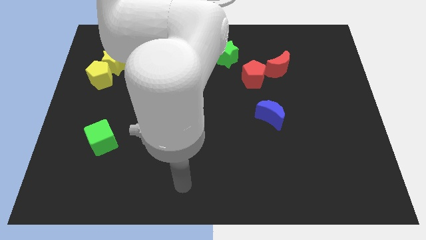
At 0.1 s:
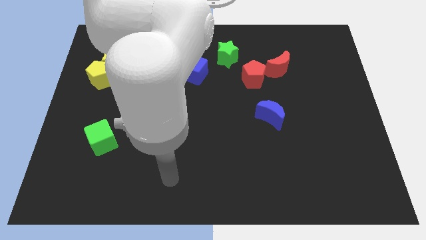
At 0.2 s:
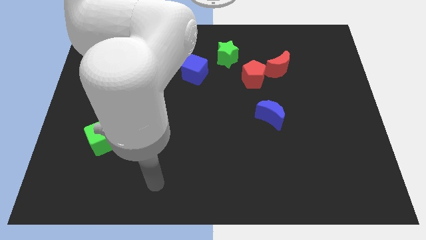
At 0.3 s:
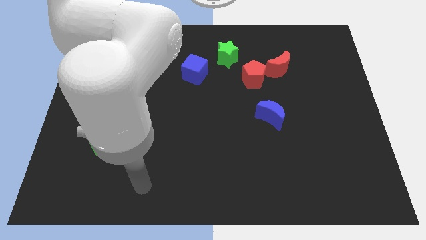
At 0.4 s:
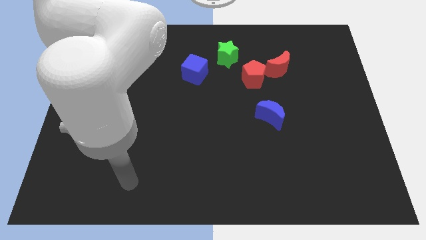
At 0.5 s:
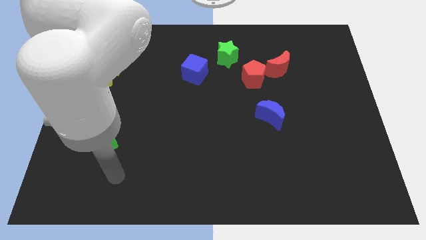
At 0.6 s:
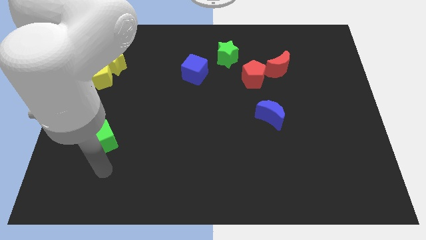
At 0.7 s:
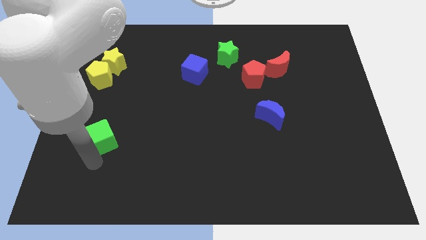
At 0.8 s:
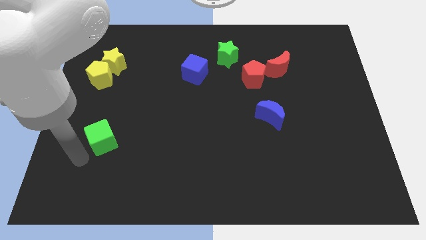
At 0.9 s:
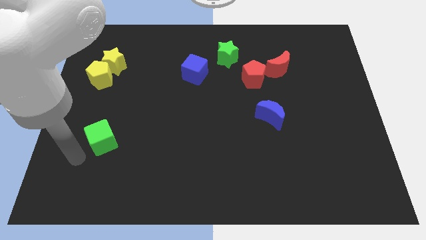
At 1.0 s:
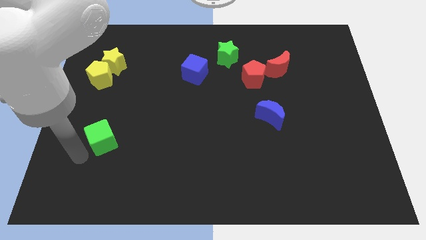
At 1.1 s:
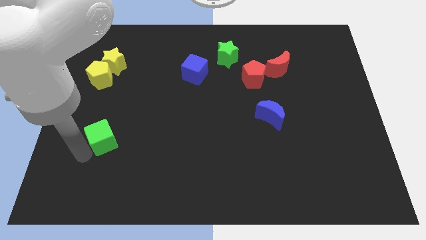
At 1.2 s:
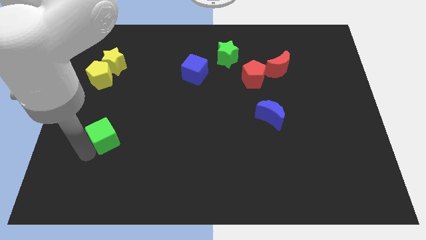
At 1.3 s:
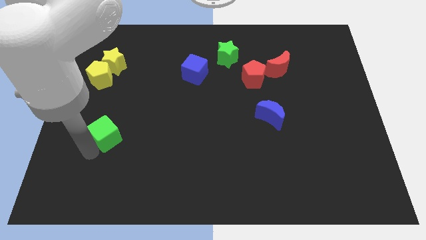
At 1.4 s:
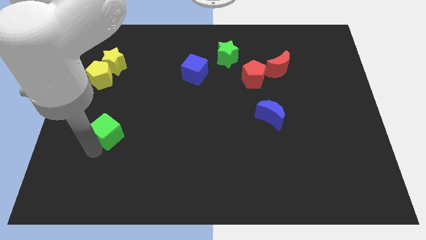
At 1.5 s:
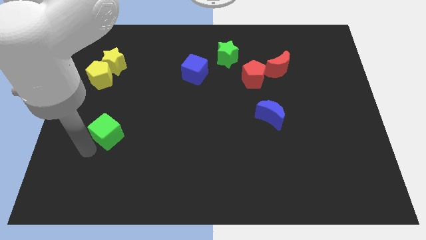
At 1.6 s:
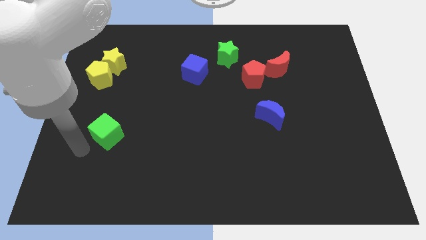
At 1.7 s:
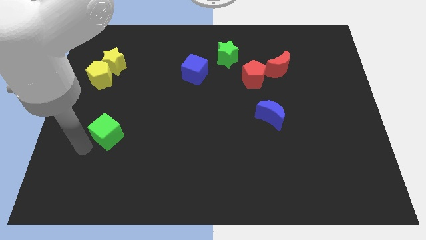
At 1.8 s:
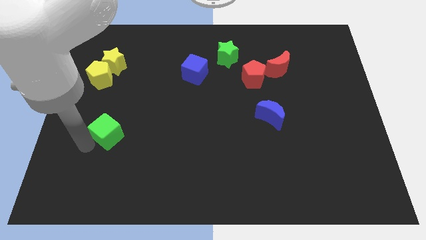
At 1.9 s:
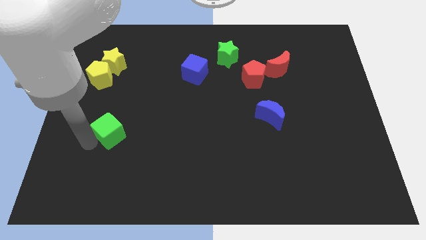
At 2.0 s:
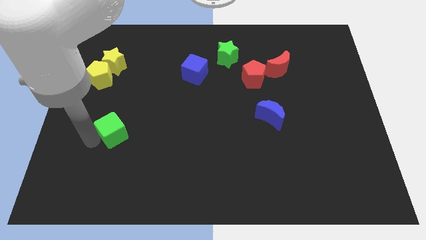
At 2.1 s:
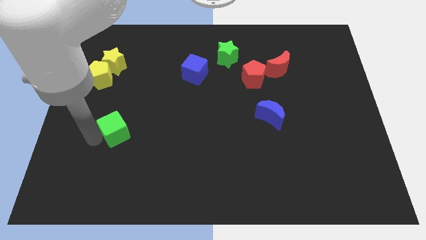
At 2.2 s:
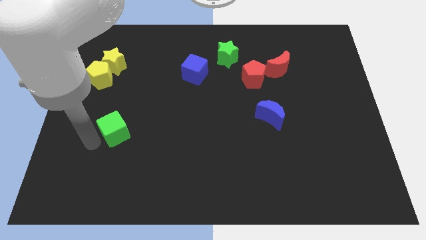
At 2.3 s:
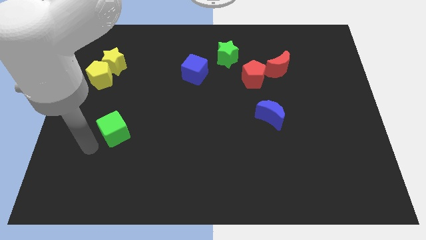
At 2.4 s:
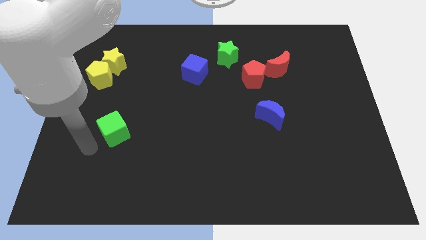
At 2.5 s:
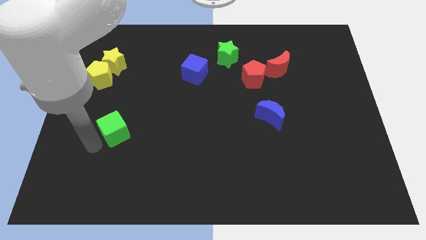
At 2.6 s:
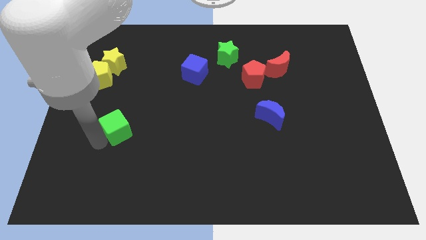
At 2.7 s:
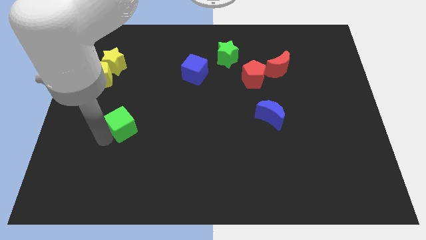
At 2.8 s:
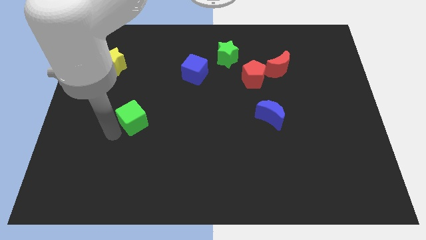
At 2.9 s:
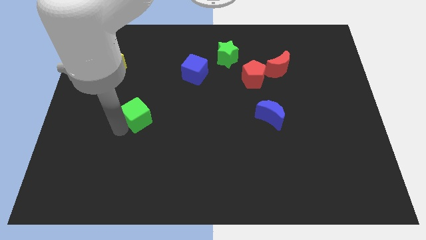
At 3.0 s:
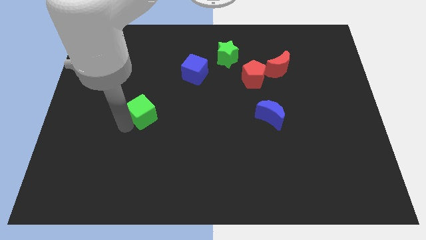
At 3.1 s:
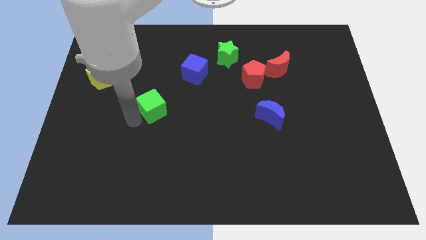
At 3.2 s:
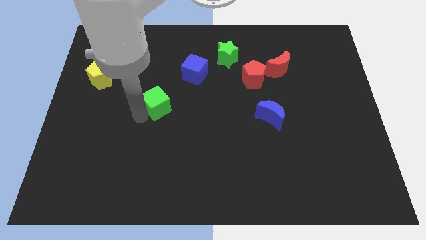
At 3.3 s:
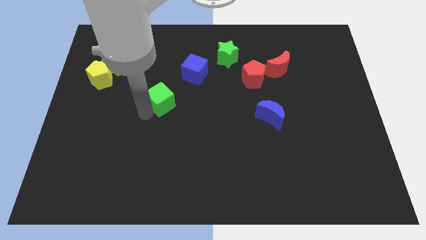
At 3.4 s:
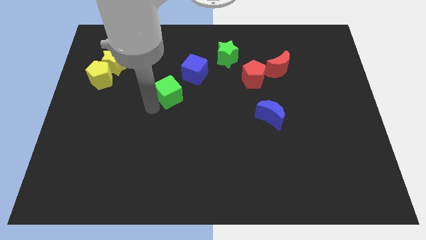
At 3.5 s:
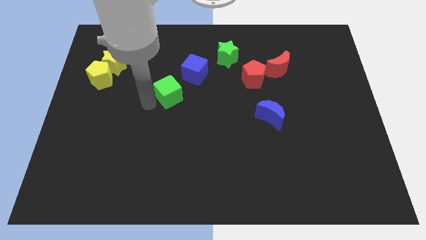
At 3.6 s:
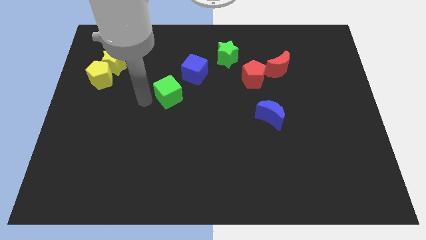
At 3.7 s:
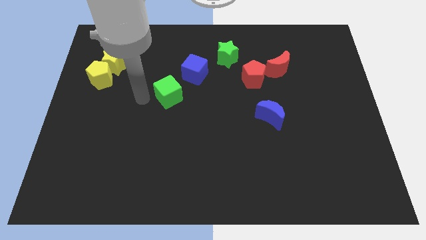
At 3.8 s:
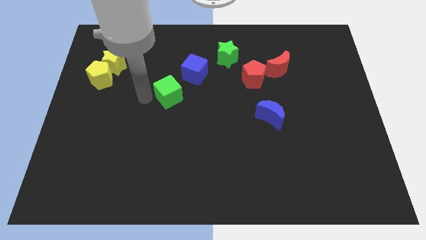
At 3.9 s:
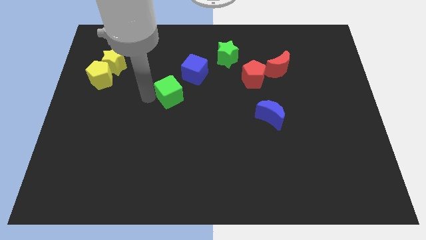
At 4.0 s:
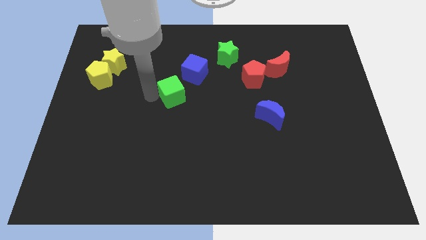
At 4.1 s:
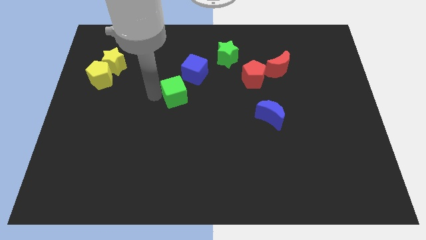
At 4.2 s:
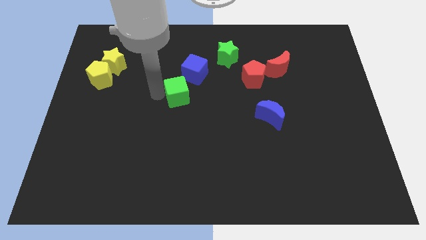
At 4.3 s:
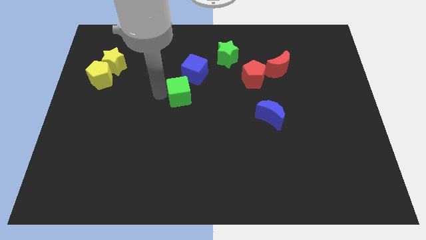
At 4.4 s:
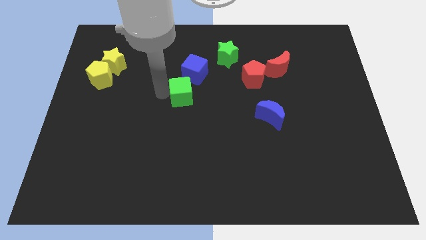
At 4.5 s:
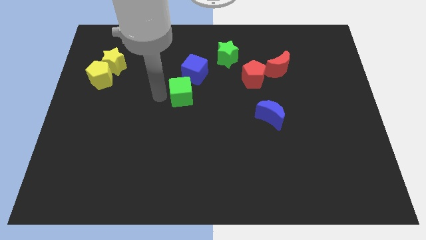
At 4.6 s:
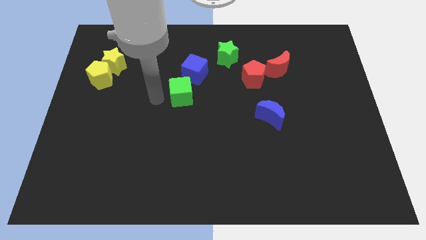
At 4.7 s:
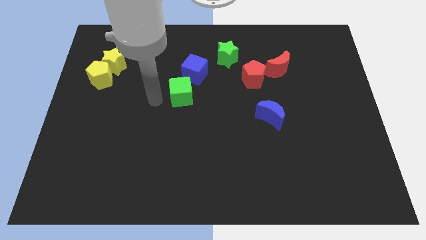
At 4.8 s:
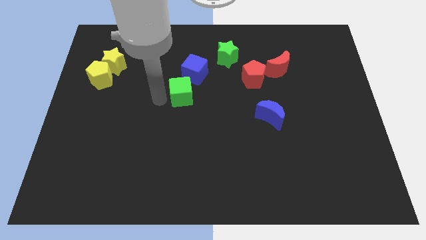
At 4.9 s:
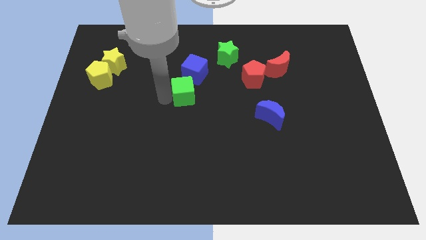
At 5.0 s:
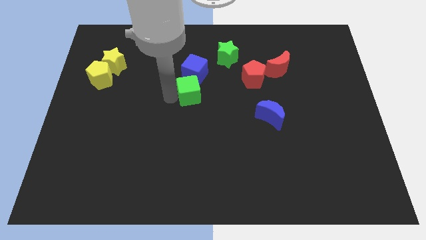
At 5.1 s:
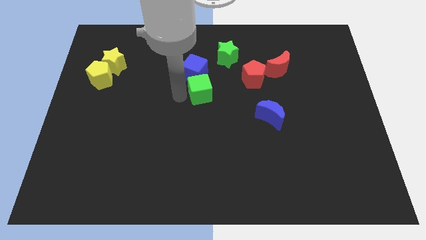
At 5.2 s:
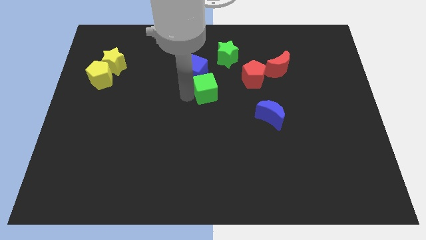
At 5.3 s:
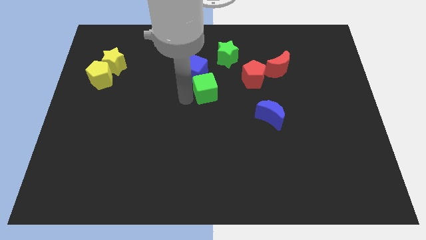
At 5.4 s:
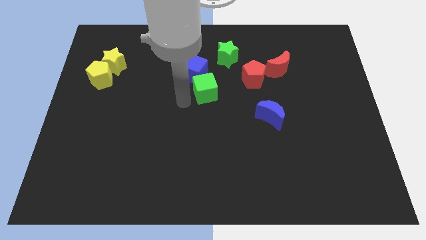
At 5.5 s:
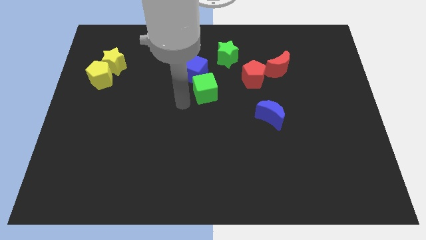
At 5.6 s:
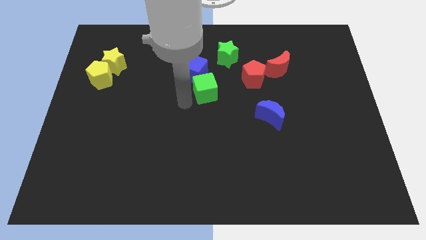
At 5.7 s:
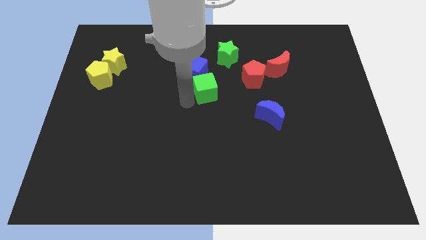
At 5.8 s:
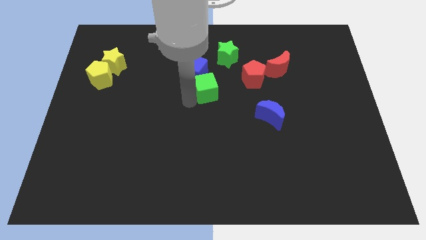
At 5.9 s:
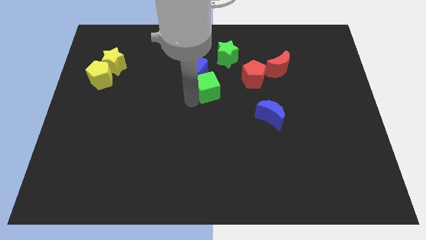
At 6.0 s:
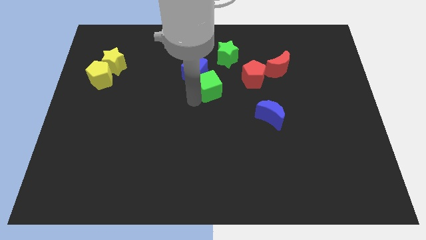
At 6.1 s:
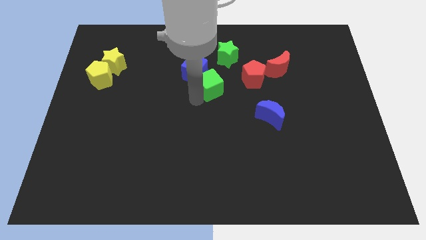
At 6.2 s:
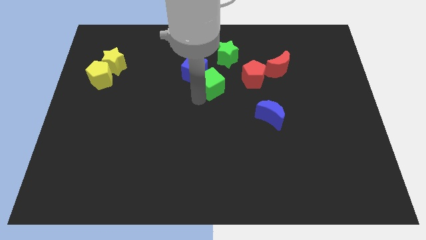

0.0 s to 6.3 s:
move the green cube right of the blue cube

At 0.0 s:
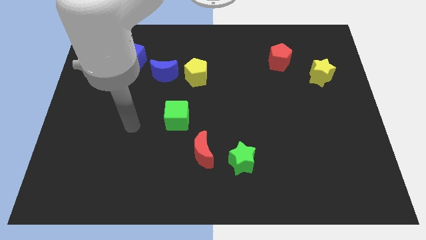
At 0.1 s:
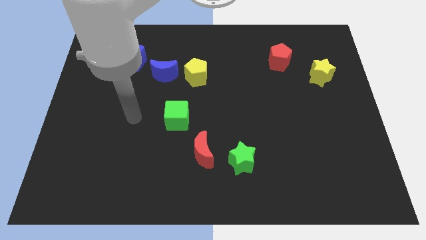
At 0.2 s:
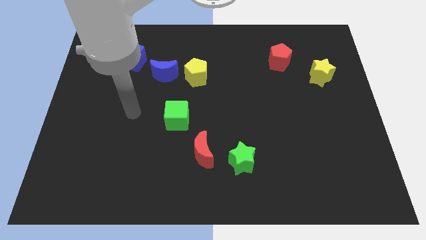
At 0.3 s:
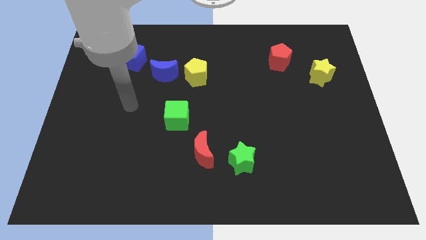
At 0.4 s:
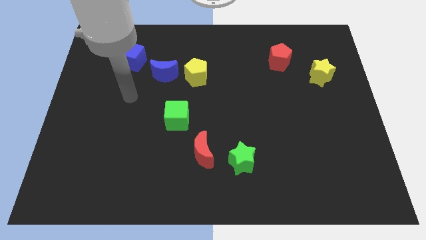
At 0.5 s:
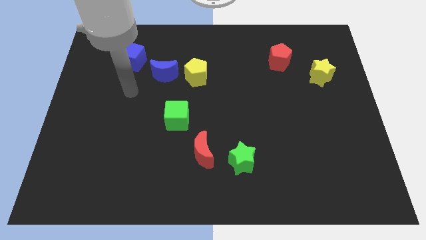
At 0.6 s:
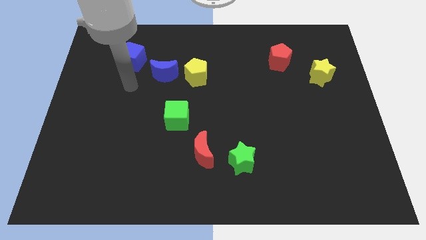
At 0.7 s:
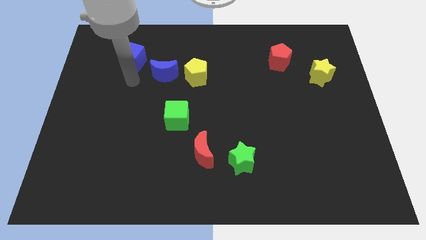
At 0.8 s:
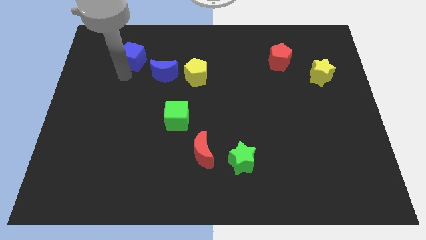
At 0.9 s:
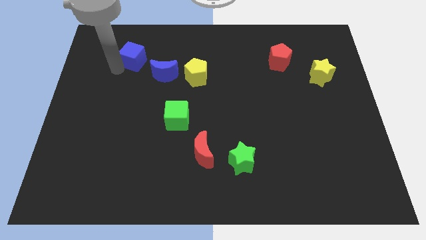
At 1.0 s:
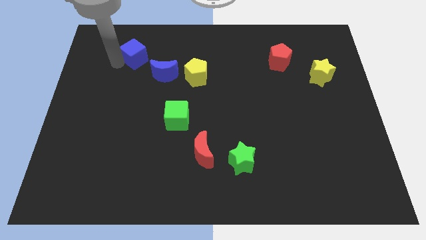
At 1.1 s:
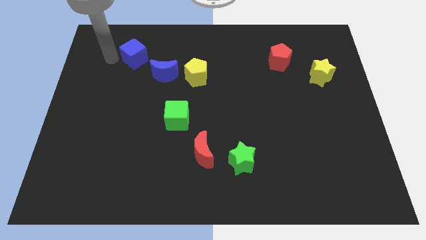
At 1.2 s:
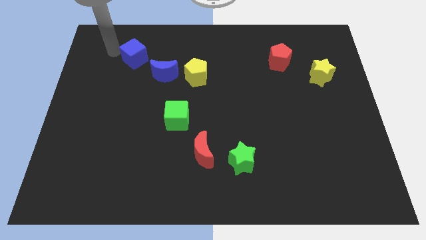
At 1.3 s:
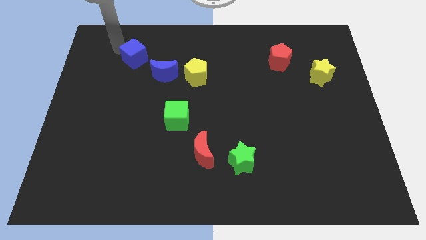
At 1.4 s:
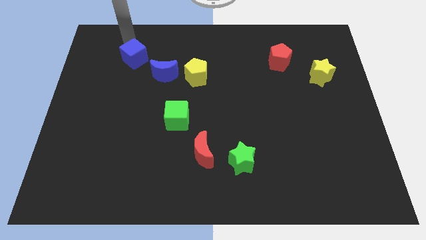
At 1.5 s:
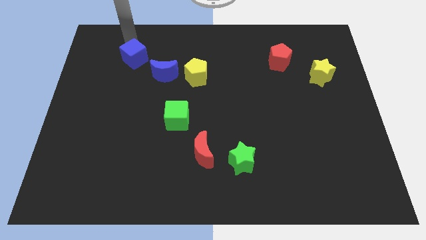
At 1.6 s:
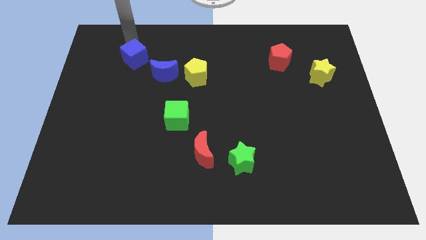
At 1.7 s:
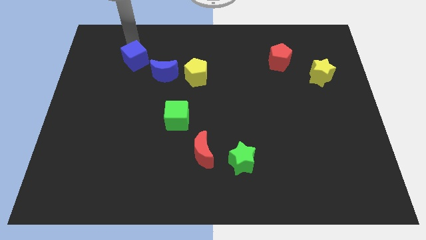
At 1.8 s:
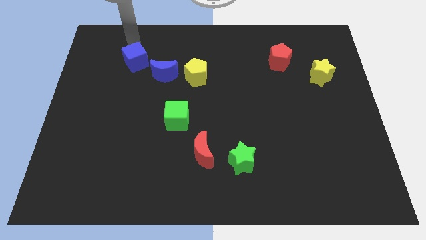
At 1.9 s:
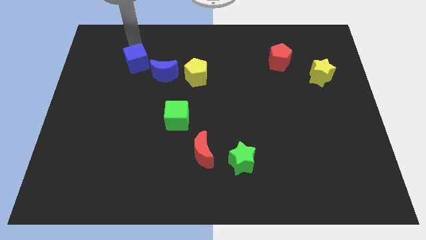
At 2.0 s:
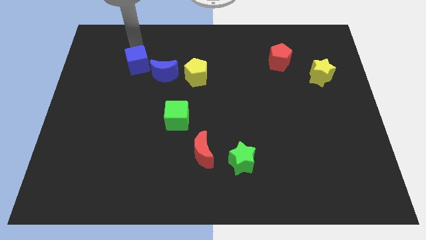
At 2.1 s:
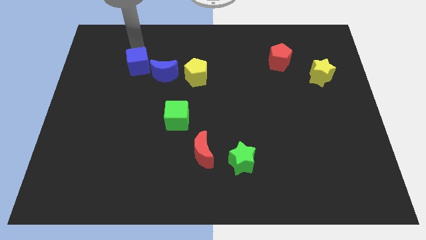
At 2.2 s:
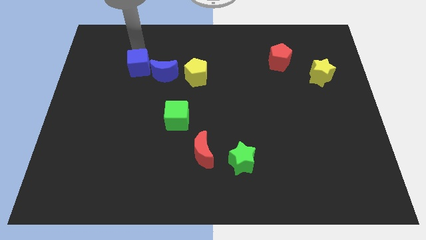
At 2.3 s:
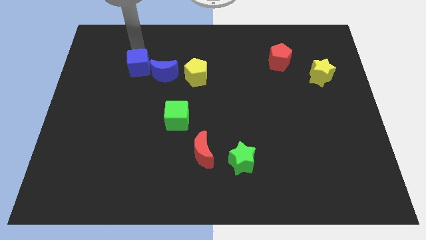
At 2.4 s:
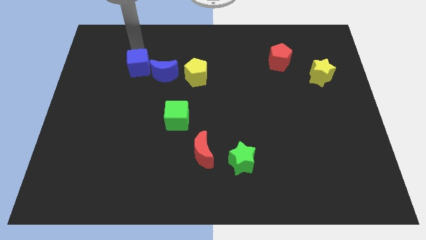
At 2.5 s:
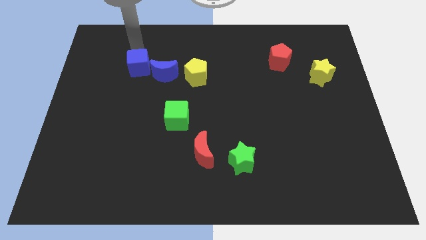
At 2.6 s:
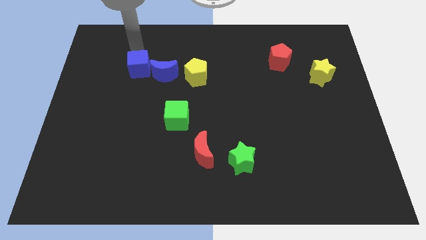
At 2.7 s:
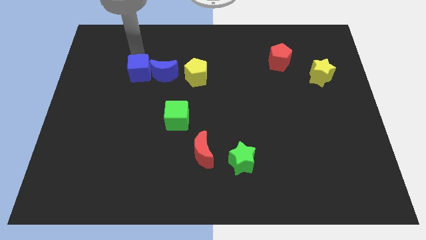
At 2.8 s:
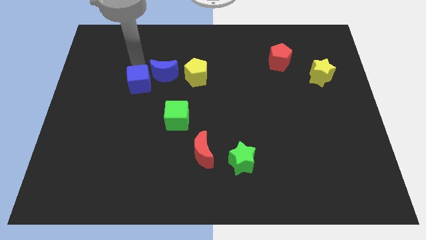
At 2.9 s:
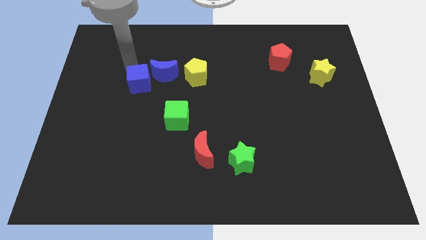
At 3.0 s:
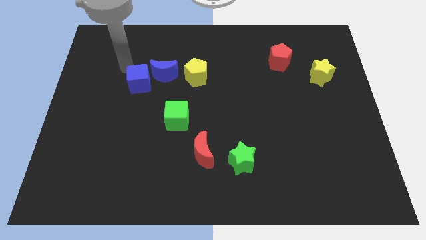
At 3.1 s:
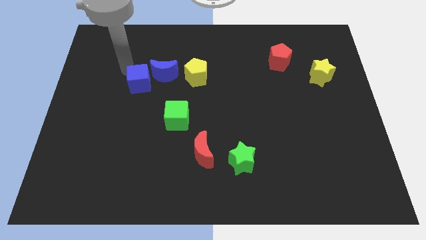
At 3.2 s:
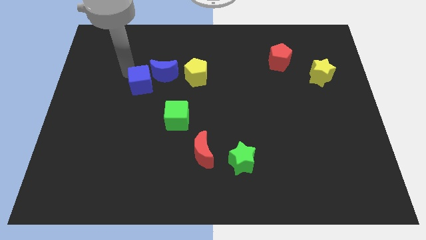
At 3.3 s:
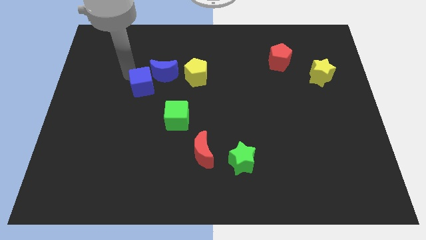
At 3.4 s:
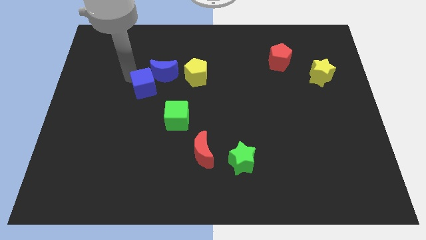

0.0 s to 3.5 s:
put the blue cube diagonally up and to the left of the green cube
